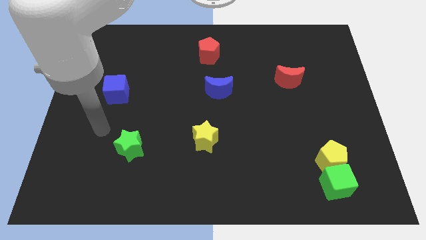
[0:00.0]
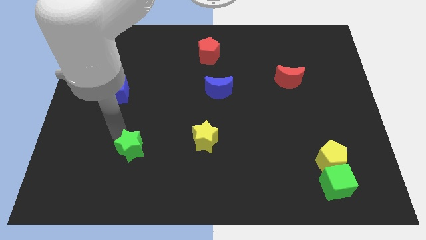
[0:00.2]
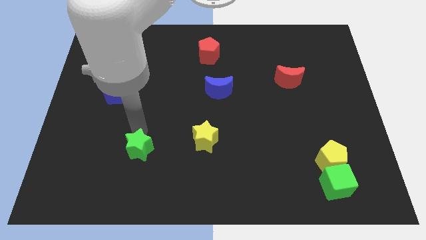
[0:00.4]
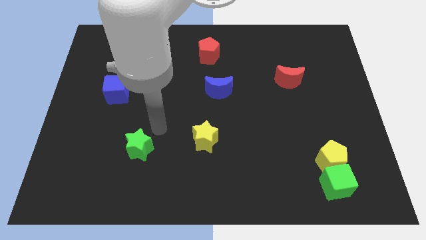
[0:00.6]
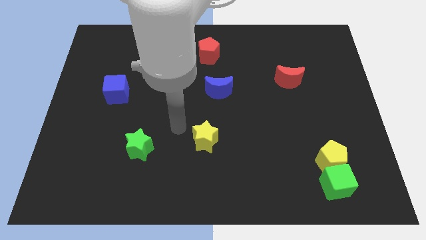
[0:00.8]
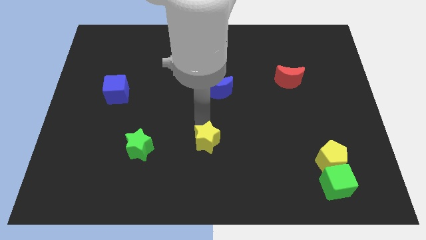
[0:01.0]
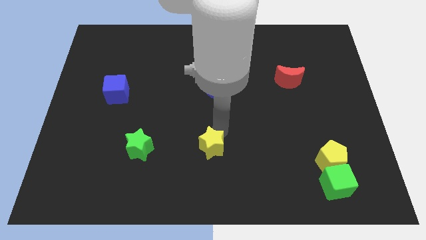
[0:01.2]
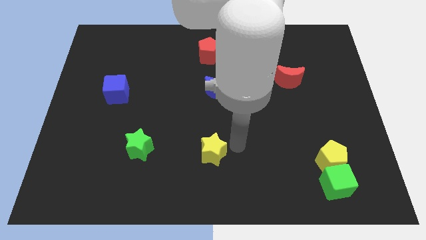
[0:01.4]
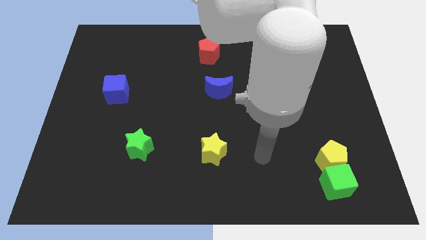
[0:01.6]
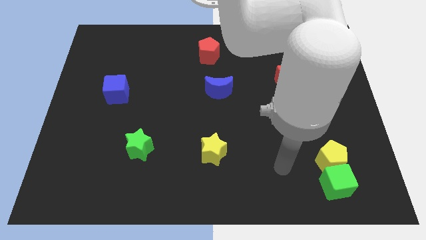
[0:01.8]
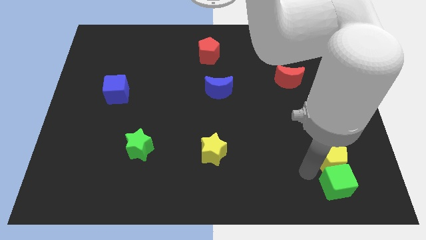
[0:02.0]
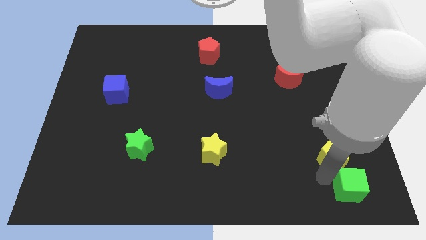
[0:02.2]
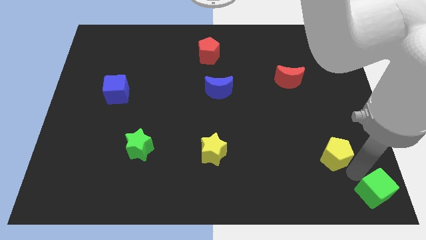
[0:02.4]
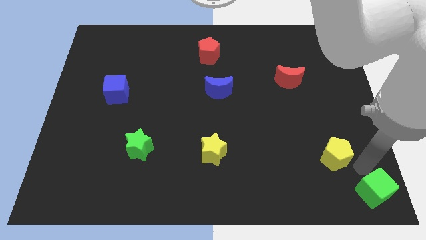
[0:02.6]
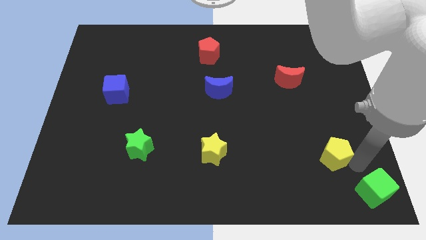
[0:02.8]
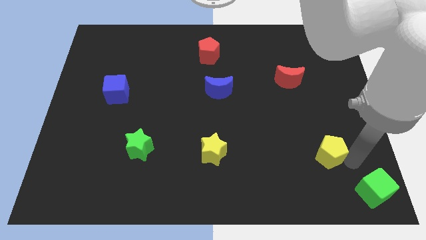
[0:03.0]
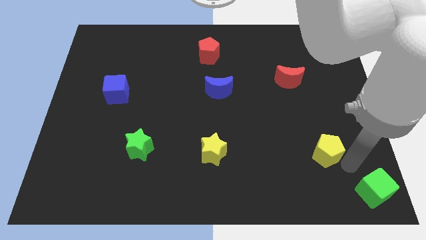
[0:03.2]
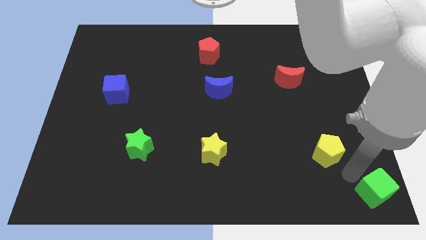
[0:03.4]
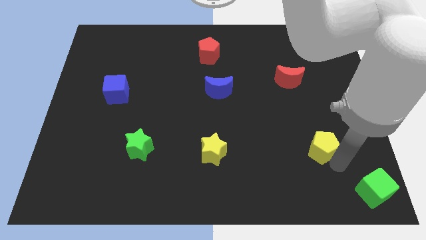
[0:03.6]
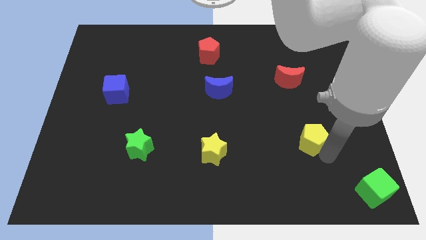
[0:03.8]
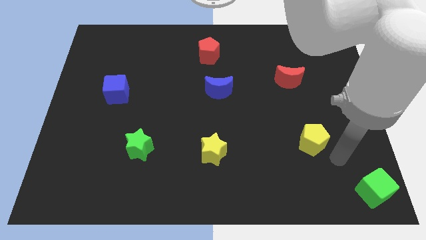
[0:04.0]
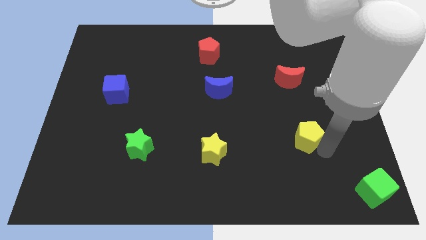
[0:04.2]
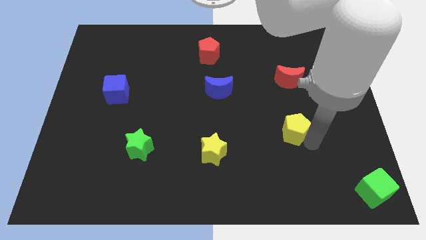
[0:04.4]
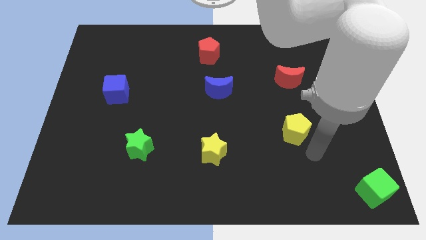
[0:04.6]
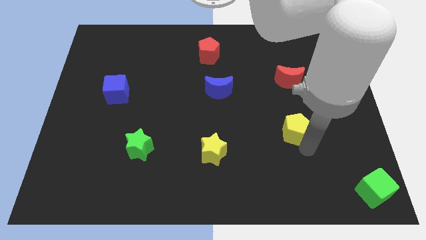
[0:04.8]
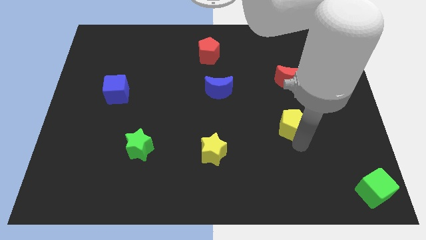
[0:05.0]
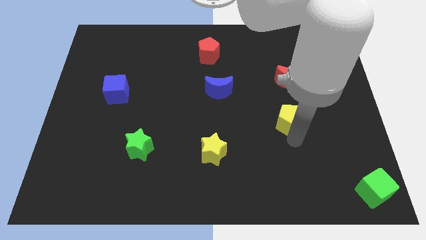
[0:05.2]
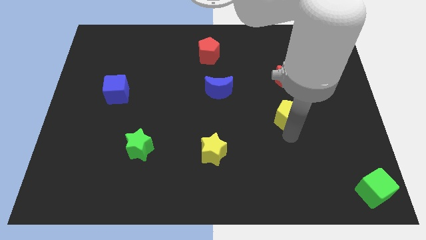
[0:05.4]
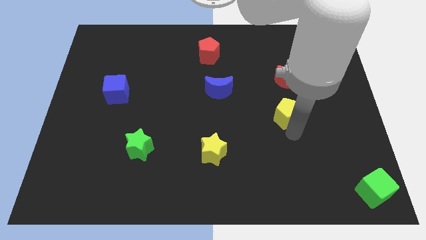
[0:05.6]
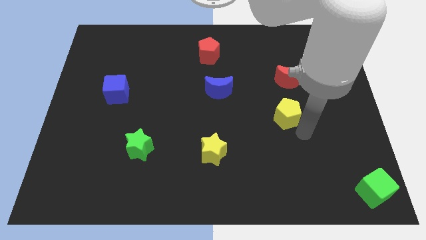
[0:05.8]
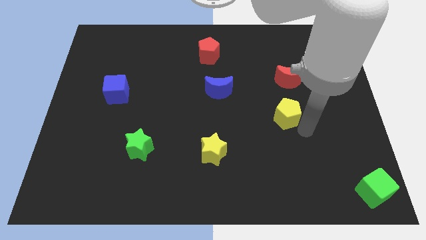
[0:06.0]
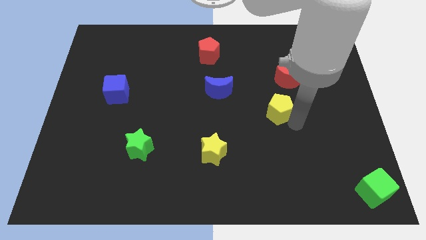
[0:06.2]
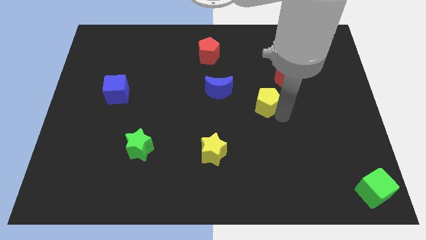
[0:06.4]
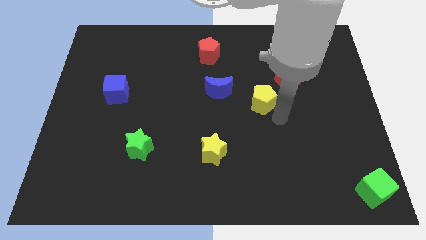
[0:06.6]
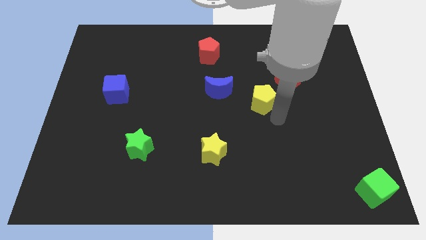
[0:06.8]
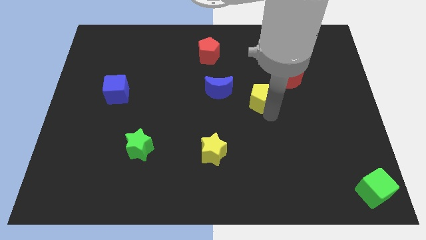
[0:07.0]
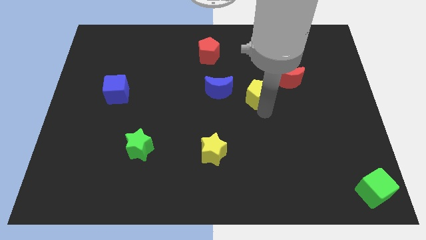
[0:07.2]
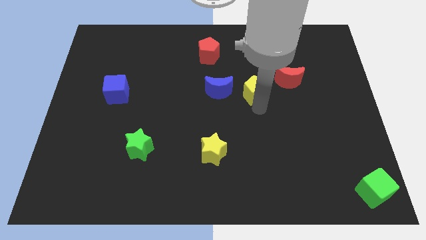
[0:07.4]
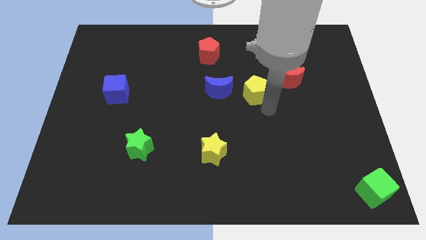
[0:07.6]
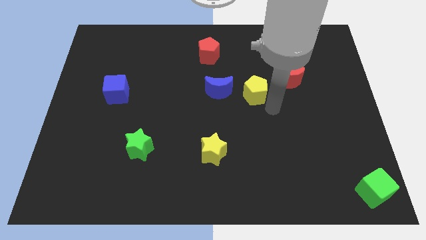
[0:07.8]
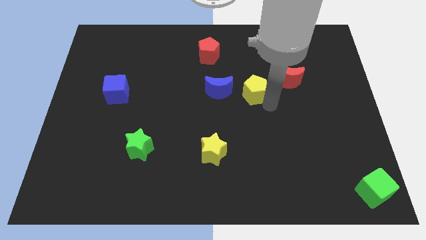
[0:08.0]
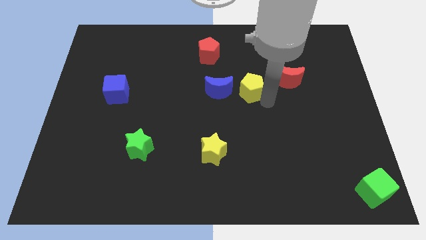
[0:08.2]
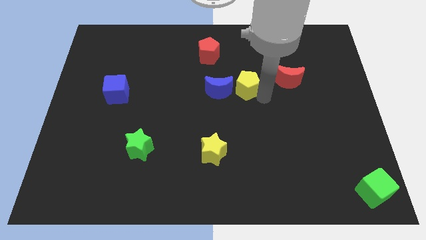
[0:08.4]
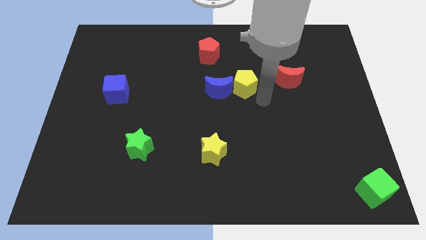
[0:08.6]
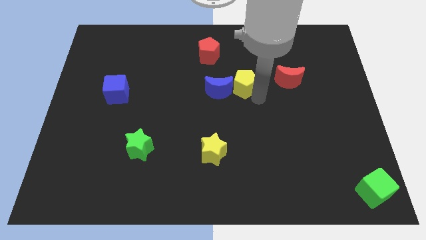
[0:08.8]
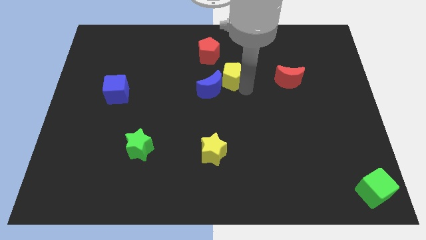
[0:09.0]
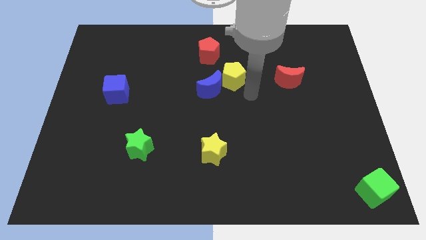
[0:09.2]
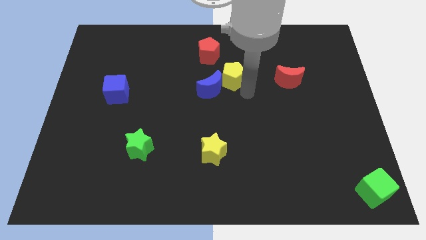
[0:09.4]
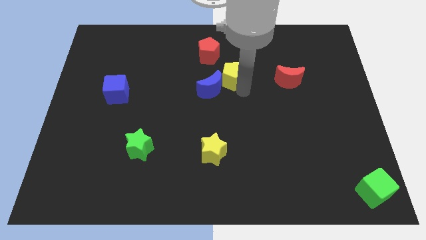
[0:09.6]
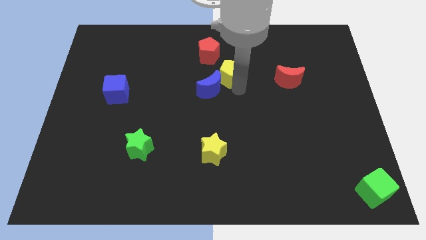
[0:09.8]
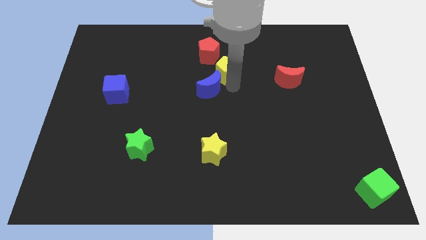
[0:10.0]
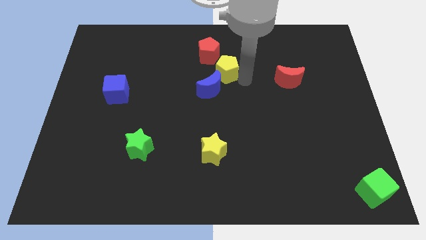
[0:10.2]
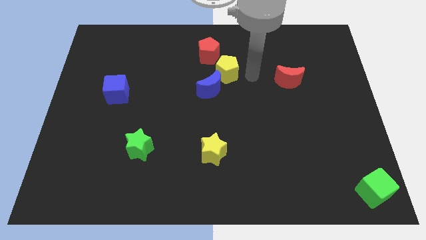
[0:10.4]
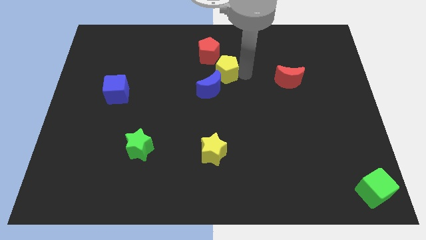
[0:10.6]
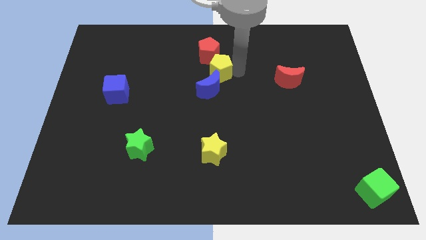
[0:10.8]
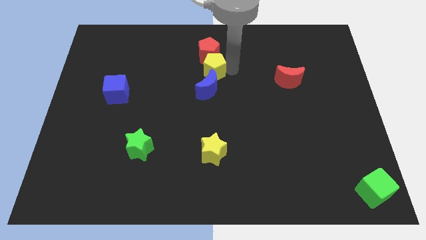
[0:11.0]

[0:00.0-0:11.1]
put the yellow pentagon diagonally down and to the left of the red pentagon

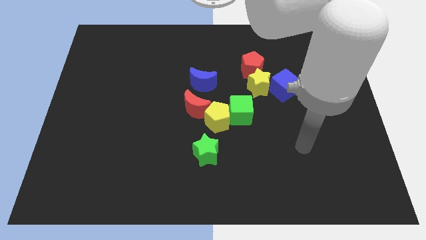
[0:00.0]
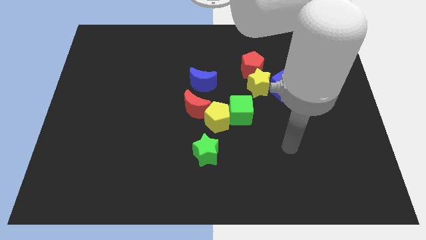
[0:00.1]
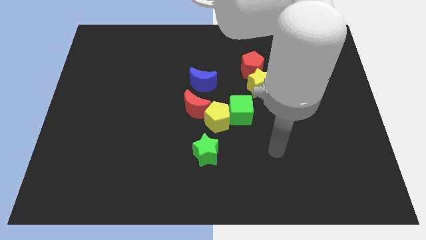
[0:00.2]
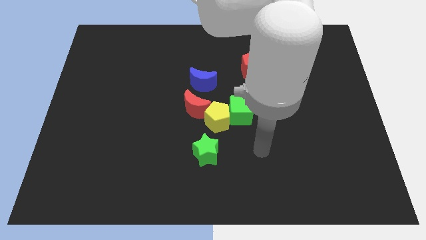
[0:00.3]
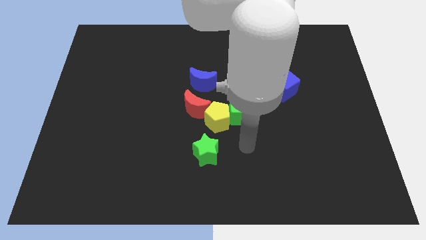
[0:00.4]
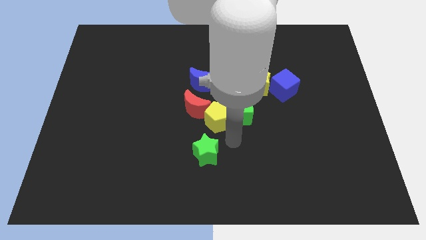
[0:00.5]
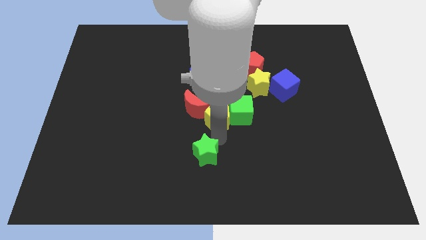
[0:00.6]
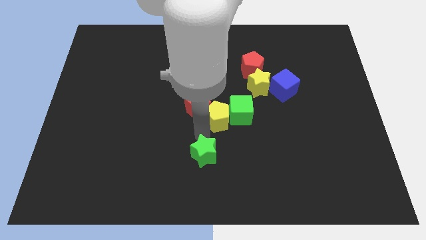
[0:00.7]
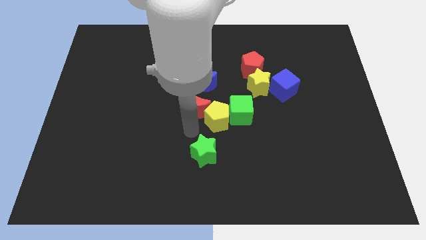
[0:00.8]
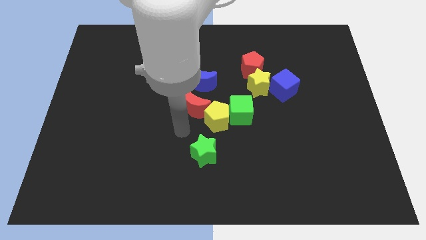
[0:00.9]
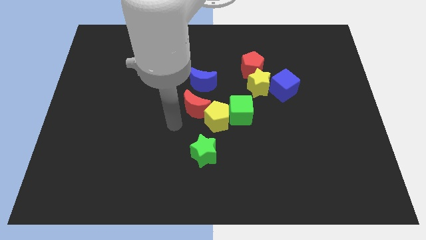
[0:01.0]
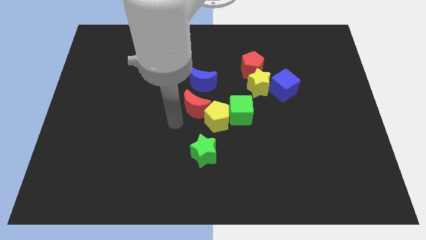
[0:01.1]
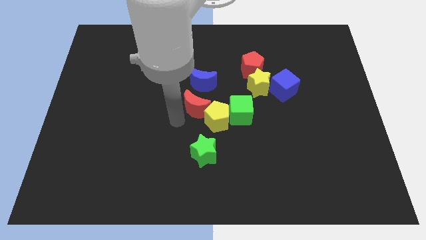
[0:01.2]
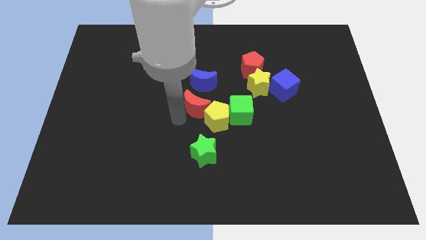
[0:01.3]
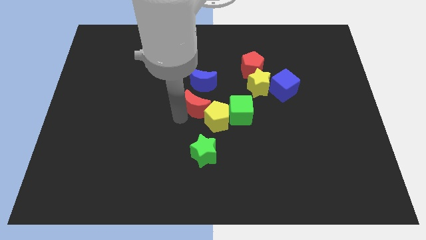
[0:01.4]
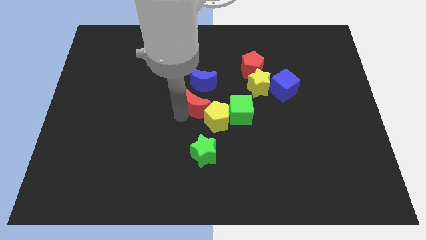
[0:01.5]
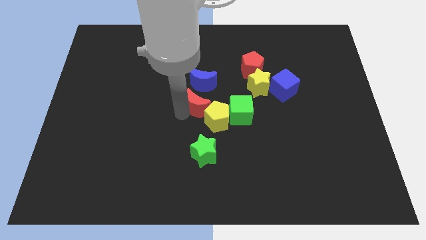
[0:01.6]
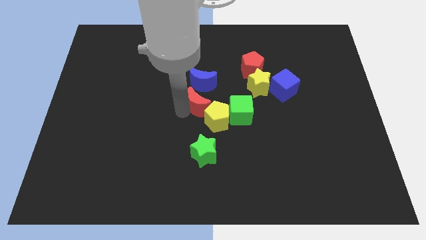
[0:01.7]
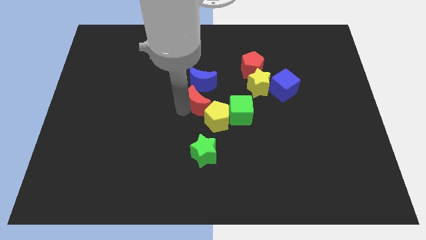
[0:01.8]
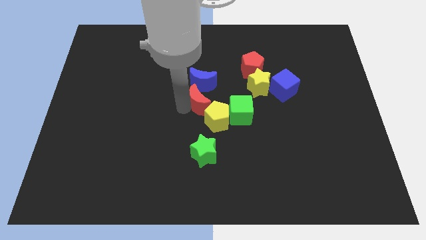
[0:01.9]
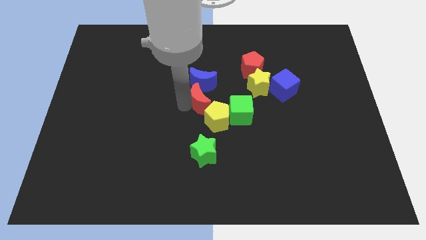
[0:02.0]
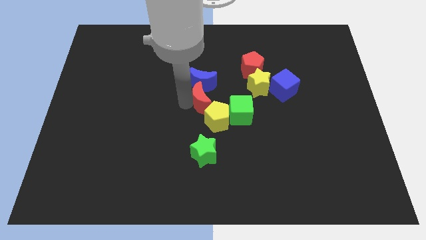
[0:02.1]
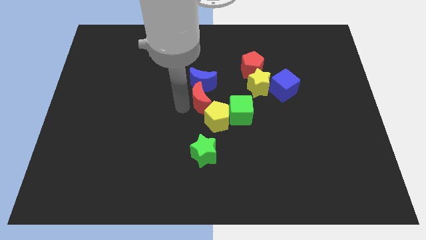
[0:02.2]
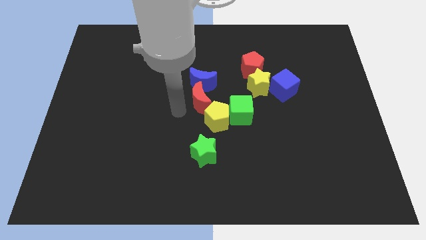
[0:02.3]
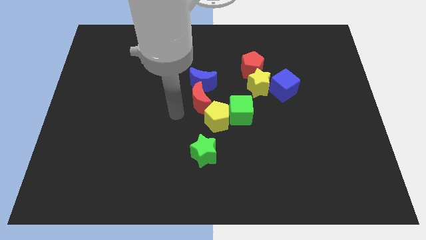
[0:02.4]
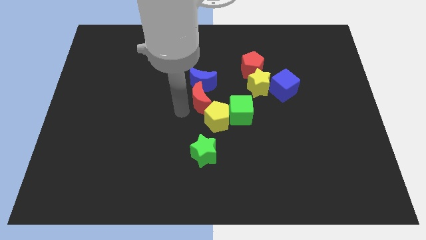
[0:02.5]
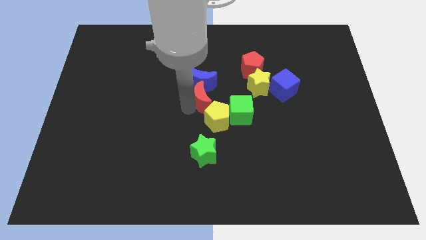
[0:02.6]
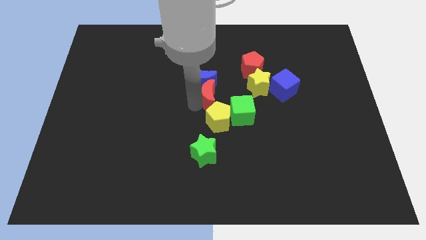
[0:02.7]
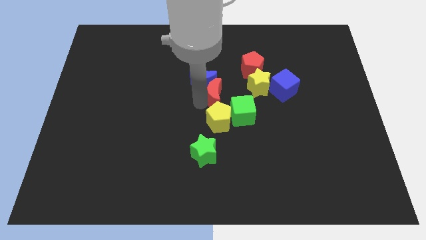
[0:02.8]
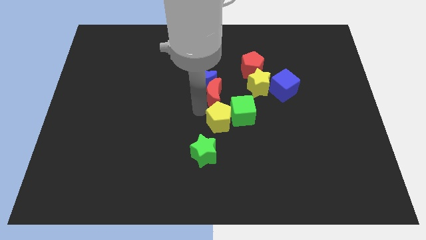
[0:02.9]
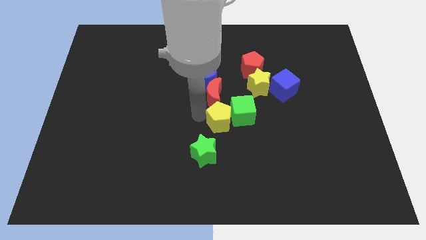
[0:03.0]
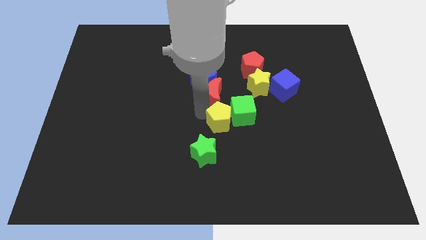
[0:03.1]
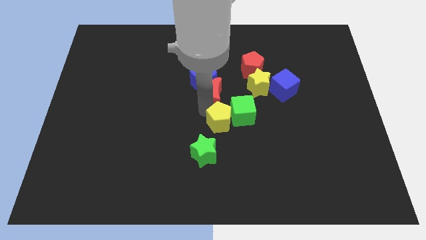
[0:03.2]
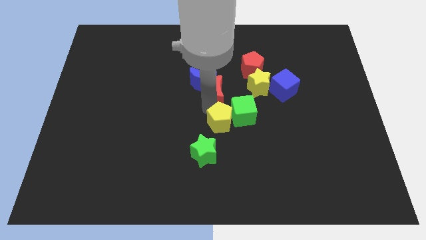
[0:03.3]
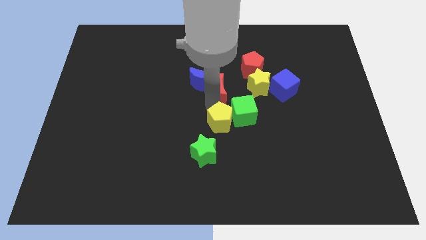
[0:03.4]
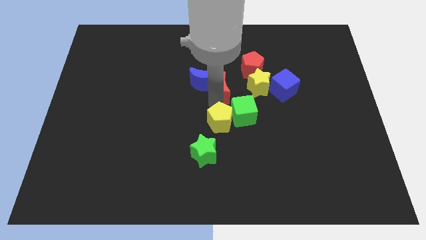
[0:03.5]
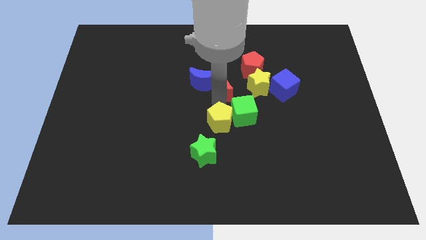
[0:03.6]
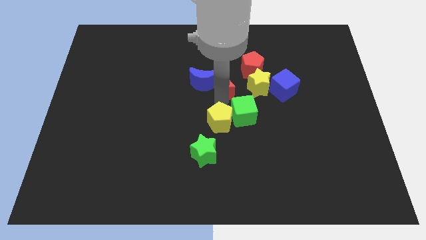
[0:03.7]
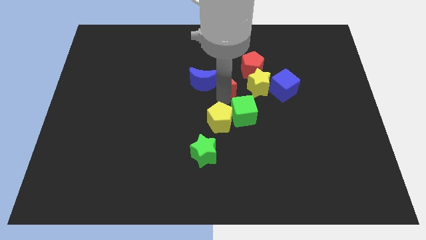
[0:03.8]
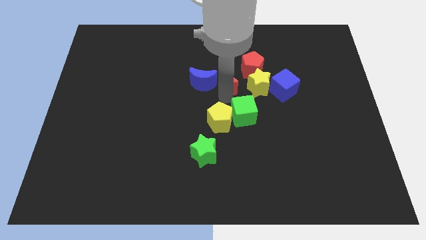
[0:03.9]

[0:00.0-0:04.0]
move the red moon to the top left of the yellow star
